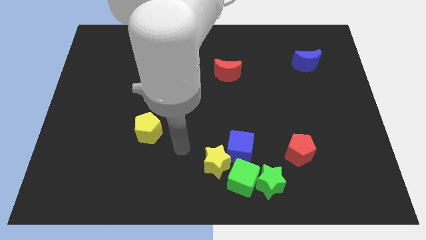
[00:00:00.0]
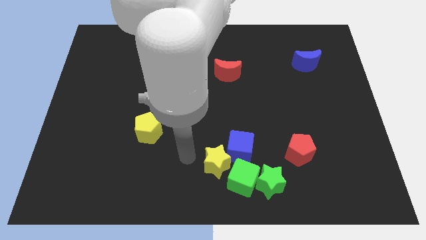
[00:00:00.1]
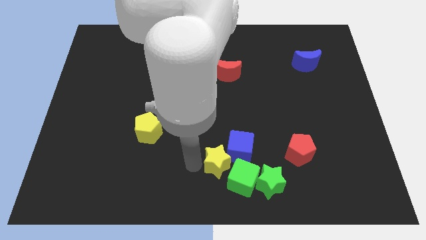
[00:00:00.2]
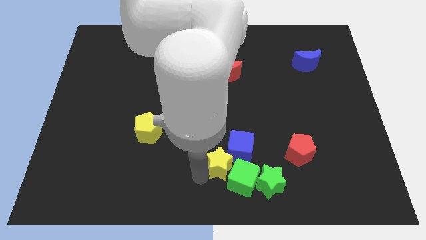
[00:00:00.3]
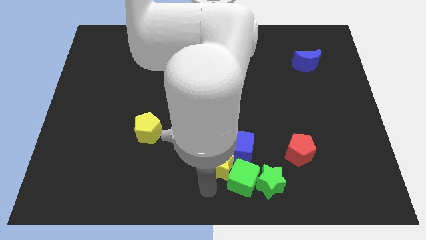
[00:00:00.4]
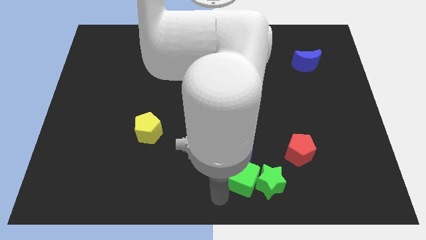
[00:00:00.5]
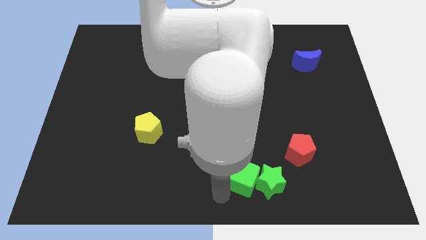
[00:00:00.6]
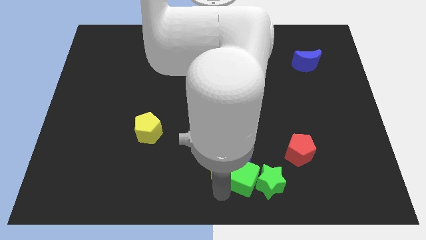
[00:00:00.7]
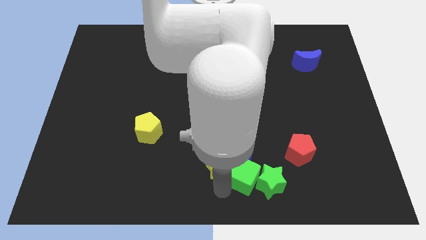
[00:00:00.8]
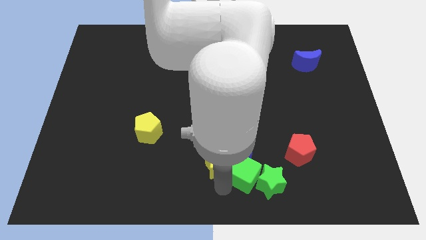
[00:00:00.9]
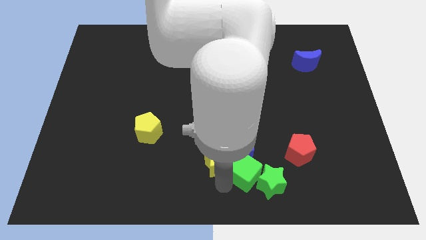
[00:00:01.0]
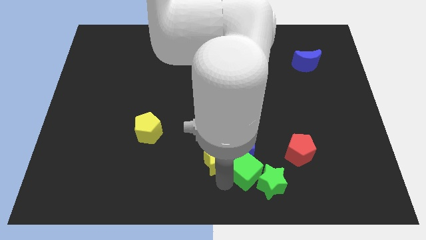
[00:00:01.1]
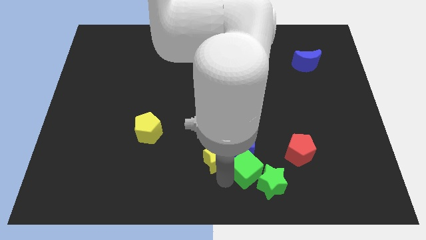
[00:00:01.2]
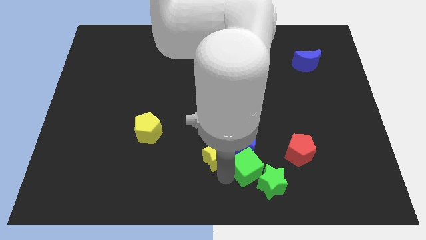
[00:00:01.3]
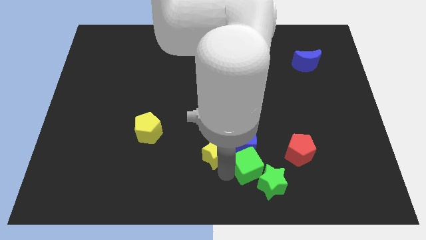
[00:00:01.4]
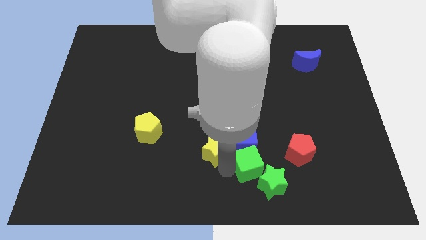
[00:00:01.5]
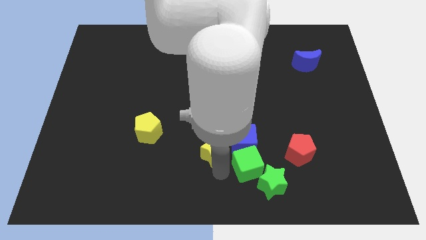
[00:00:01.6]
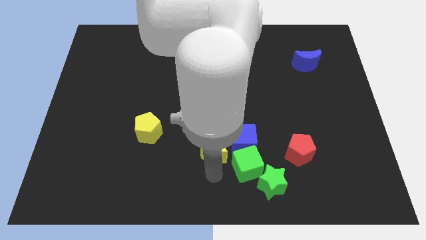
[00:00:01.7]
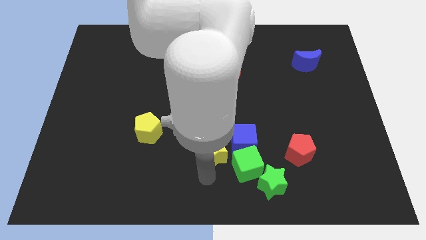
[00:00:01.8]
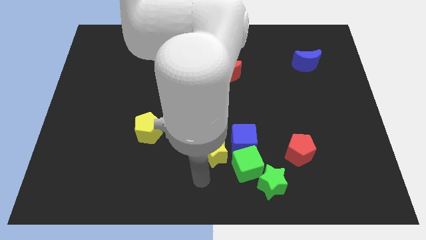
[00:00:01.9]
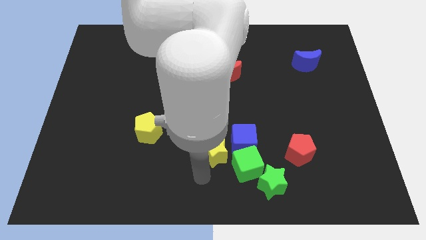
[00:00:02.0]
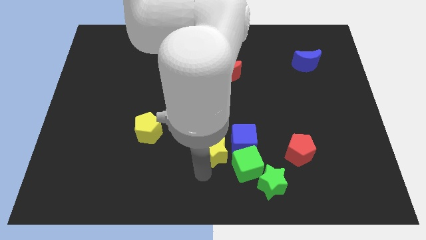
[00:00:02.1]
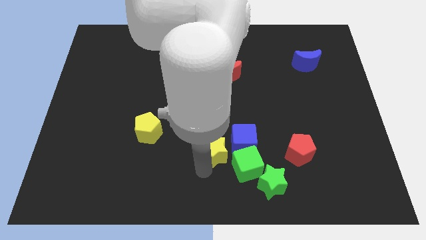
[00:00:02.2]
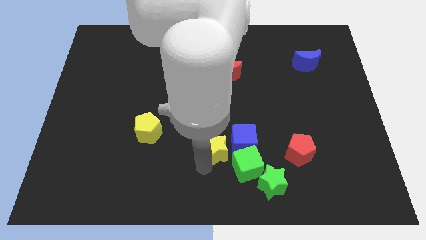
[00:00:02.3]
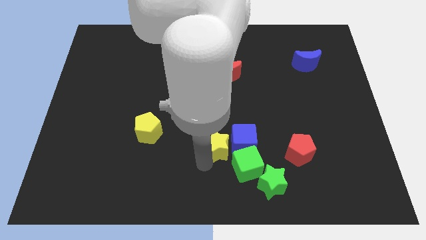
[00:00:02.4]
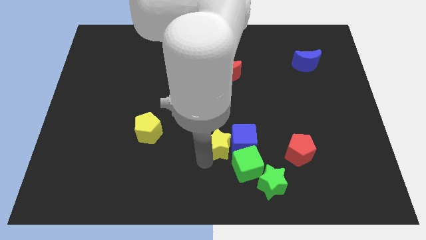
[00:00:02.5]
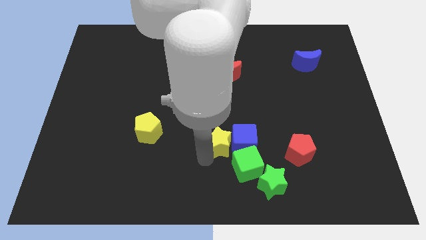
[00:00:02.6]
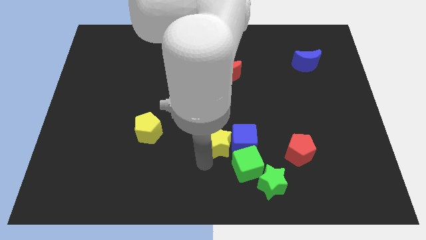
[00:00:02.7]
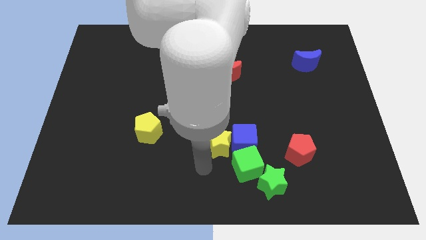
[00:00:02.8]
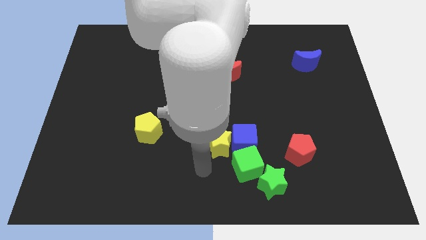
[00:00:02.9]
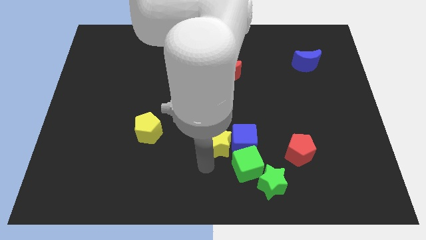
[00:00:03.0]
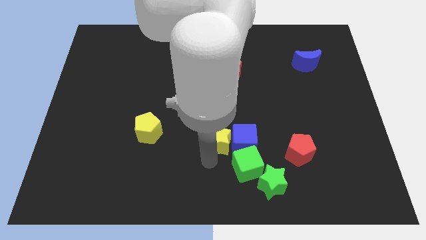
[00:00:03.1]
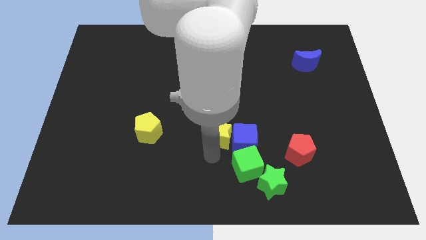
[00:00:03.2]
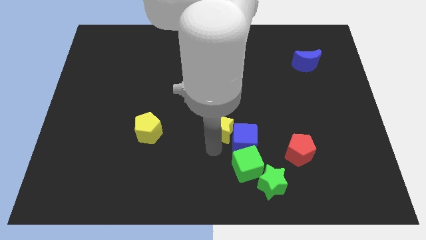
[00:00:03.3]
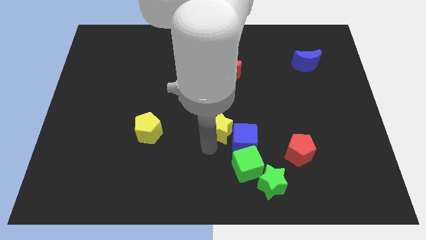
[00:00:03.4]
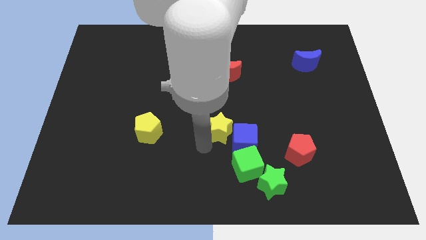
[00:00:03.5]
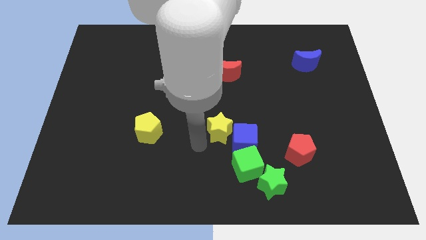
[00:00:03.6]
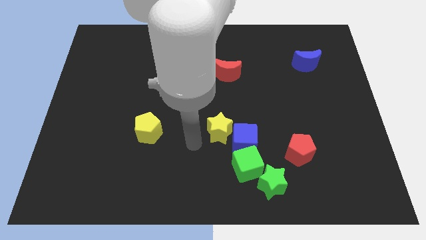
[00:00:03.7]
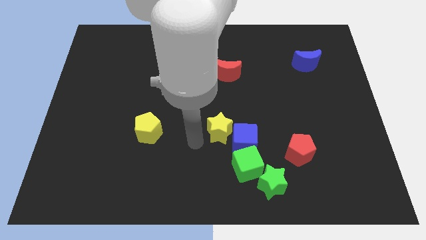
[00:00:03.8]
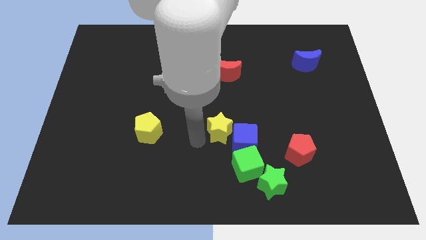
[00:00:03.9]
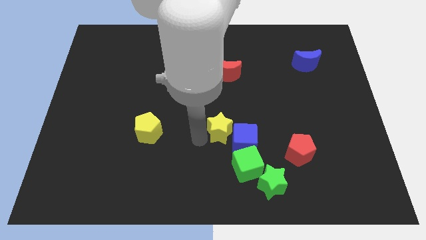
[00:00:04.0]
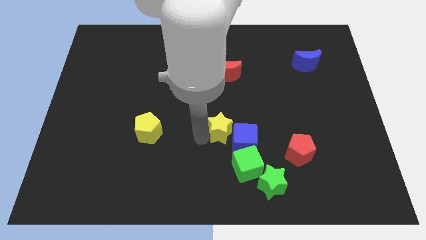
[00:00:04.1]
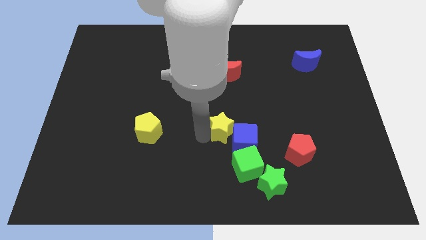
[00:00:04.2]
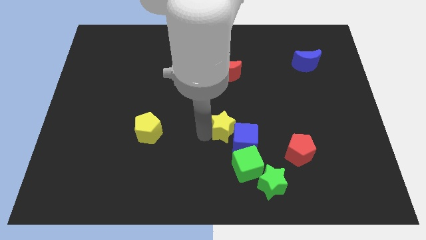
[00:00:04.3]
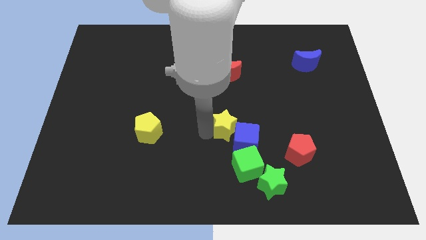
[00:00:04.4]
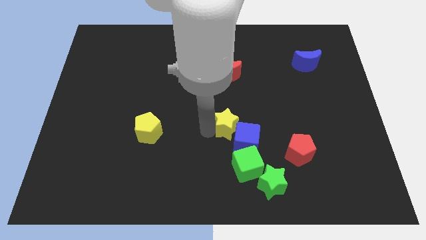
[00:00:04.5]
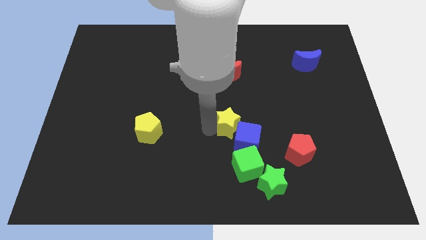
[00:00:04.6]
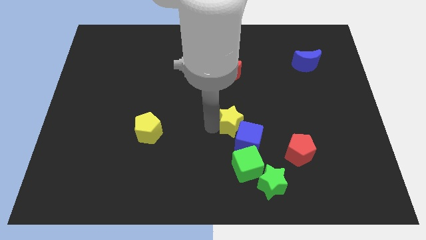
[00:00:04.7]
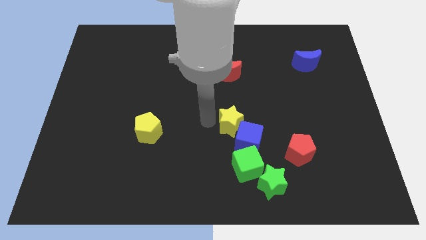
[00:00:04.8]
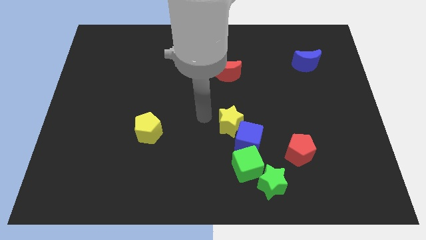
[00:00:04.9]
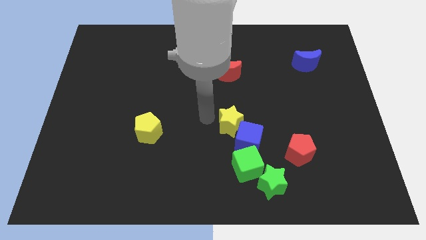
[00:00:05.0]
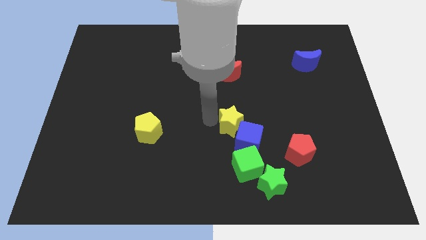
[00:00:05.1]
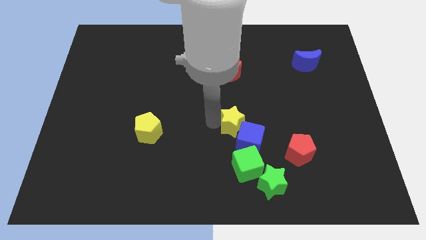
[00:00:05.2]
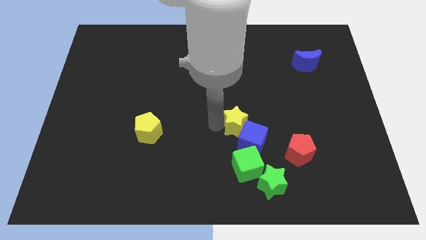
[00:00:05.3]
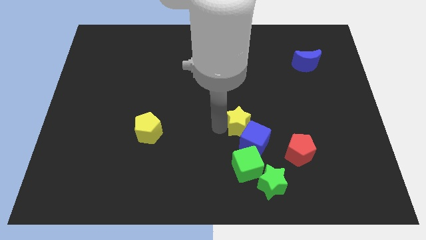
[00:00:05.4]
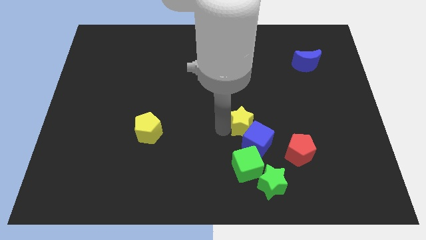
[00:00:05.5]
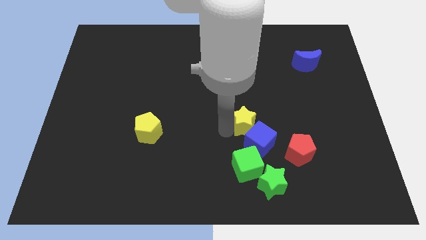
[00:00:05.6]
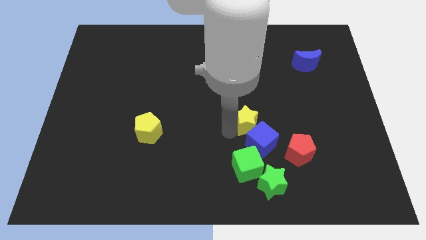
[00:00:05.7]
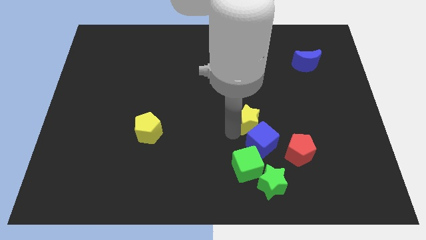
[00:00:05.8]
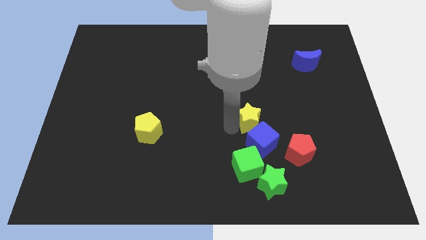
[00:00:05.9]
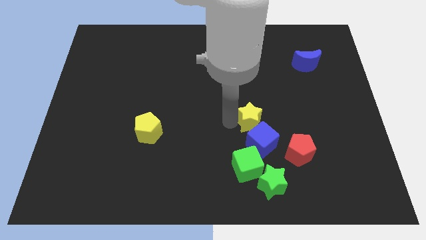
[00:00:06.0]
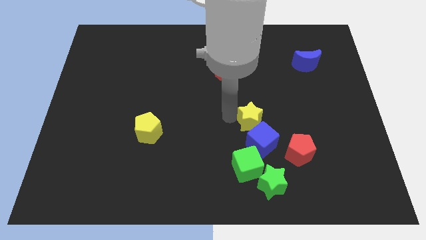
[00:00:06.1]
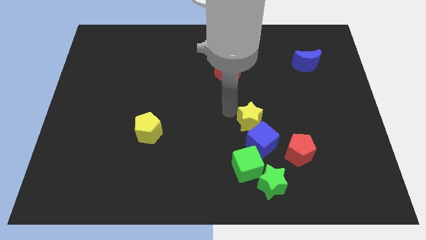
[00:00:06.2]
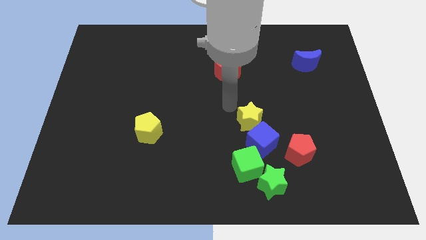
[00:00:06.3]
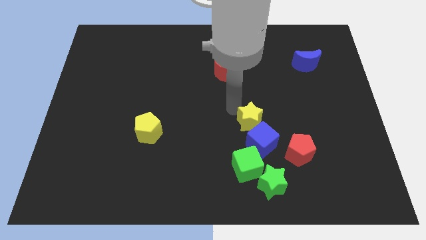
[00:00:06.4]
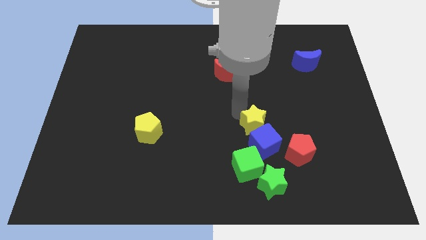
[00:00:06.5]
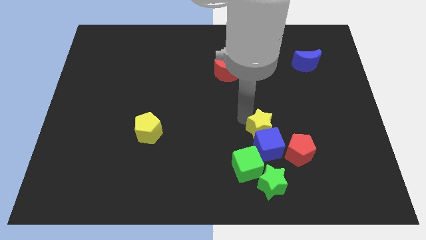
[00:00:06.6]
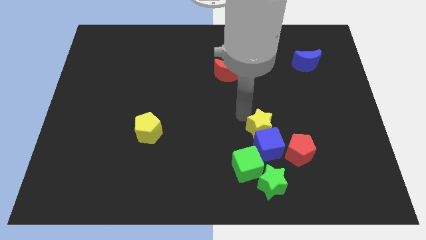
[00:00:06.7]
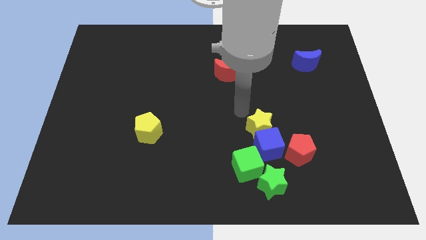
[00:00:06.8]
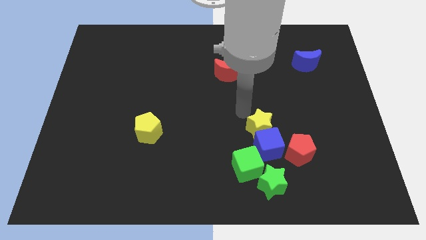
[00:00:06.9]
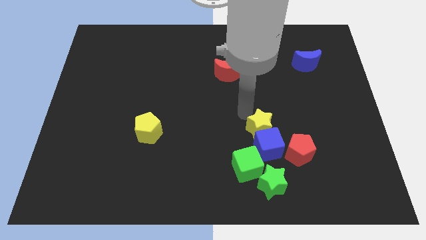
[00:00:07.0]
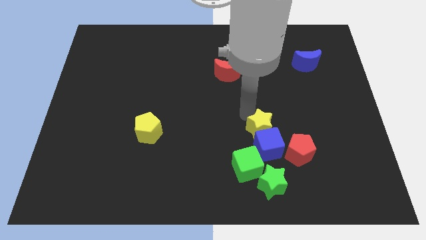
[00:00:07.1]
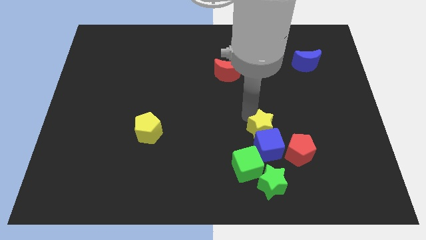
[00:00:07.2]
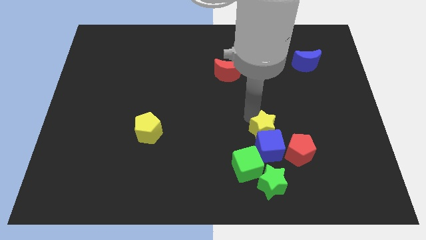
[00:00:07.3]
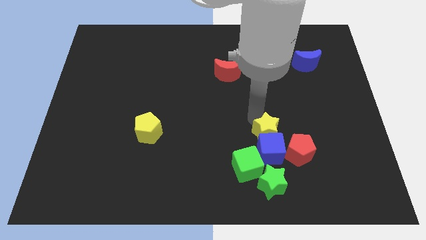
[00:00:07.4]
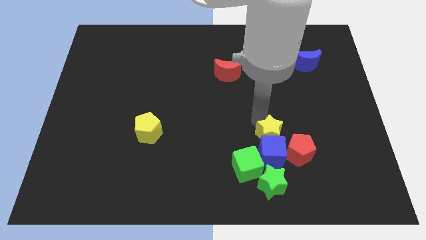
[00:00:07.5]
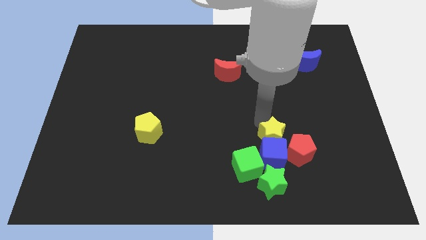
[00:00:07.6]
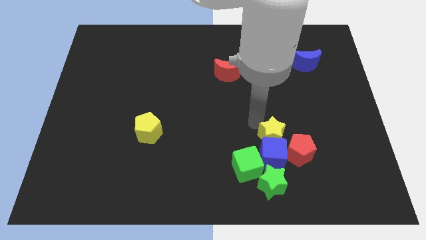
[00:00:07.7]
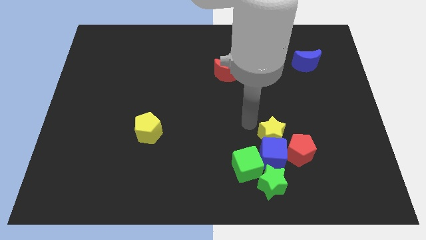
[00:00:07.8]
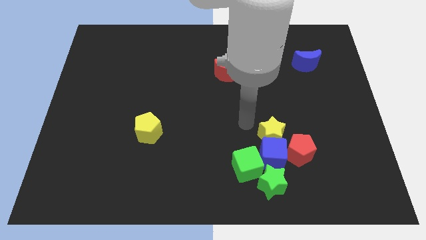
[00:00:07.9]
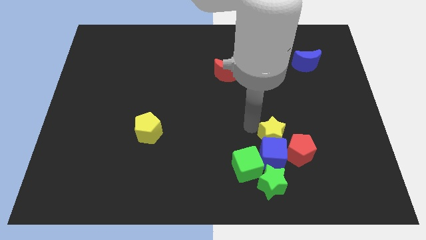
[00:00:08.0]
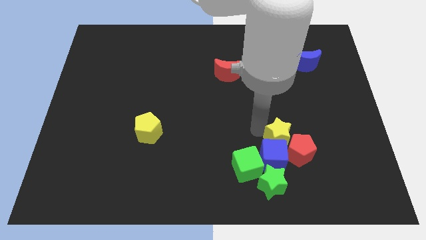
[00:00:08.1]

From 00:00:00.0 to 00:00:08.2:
slide the yellow star close to the red pentagon
